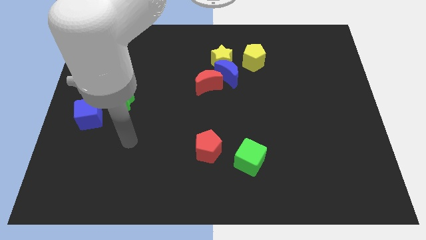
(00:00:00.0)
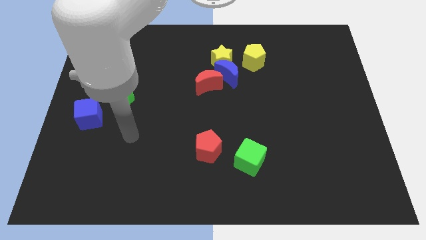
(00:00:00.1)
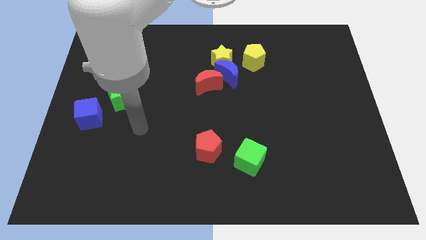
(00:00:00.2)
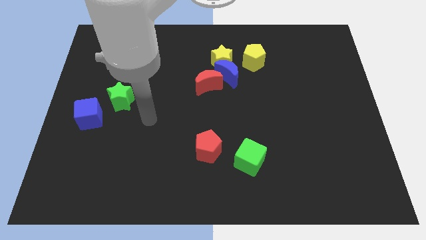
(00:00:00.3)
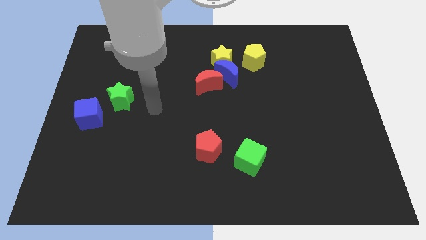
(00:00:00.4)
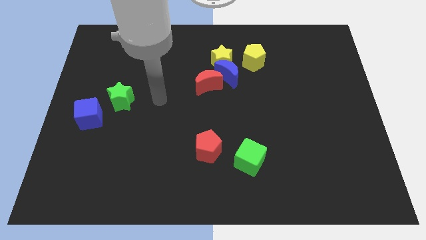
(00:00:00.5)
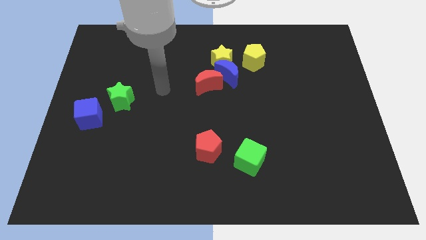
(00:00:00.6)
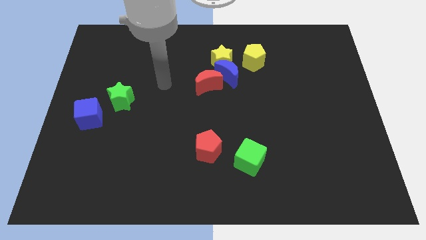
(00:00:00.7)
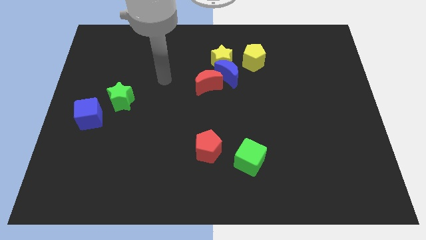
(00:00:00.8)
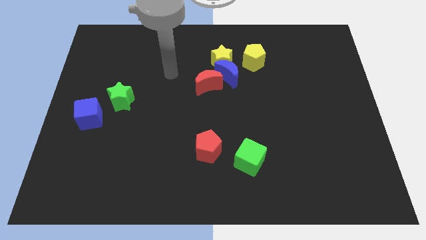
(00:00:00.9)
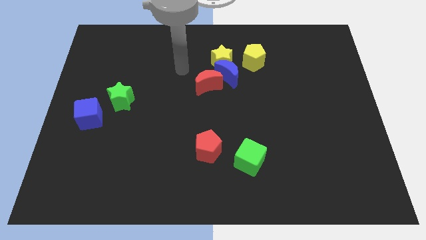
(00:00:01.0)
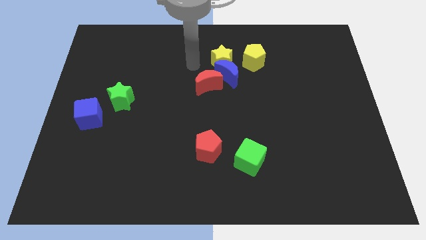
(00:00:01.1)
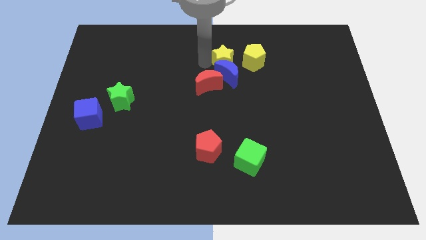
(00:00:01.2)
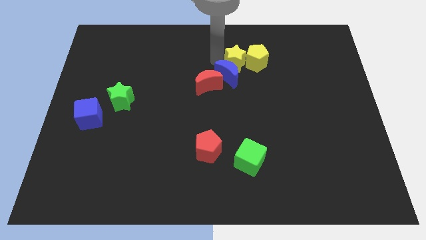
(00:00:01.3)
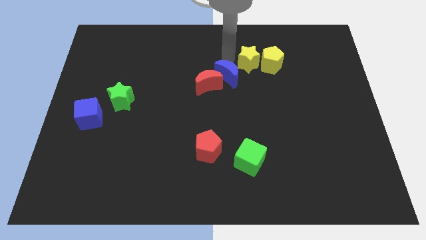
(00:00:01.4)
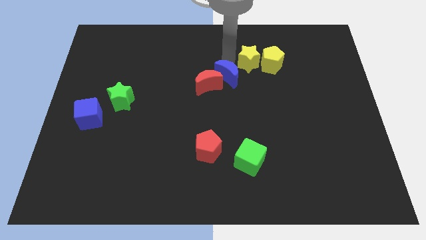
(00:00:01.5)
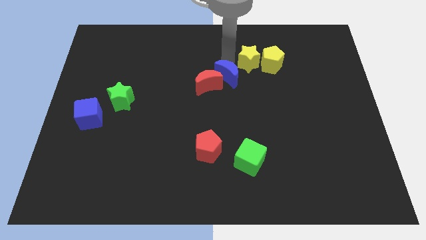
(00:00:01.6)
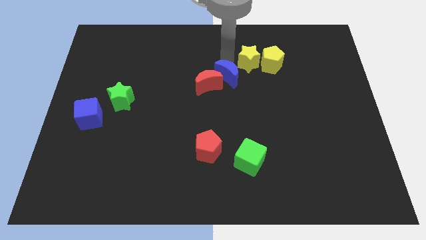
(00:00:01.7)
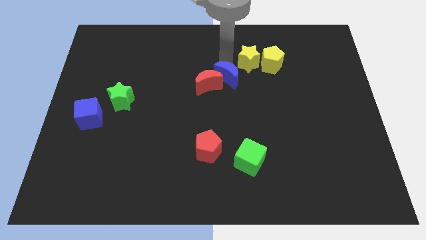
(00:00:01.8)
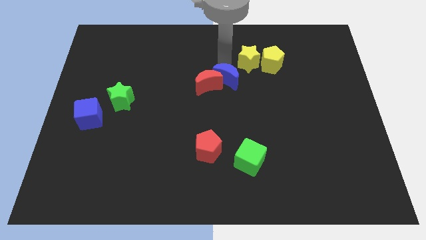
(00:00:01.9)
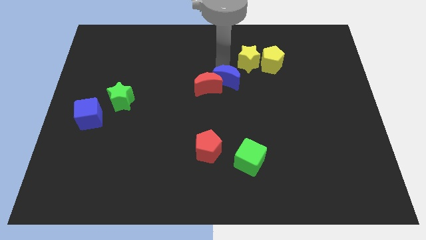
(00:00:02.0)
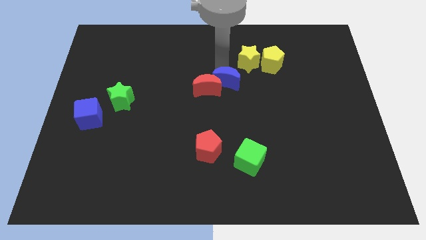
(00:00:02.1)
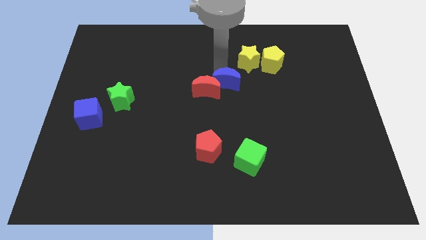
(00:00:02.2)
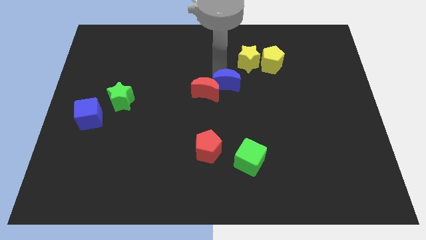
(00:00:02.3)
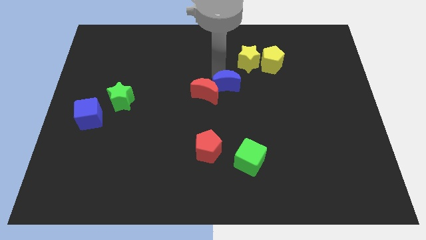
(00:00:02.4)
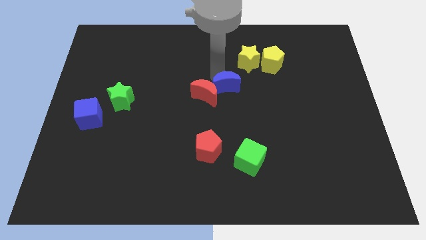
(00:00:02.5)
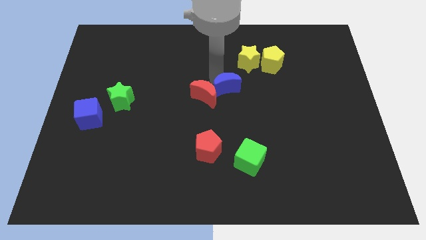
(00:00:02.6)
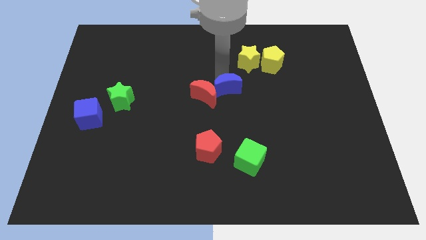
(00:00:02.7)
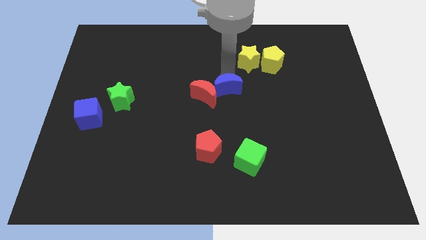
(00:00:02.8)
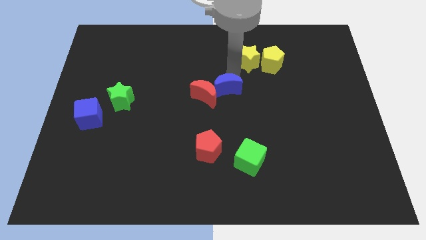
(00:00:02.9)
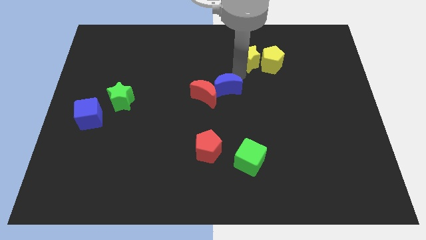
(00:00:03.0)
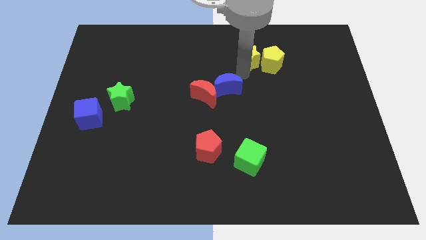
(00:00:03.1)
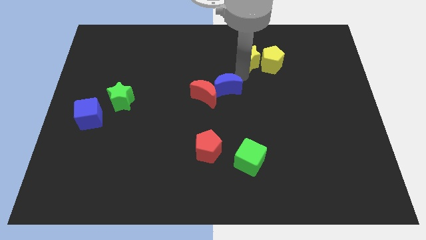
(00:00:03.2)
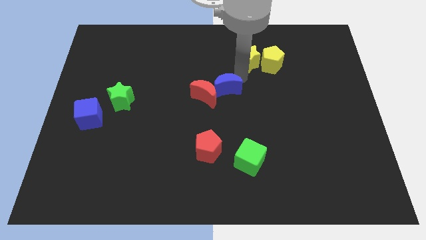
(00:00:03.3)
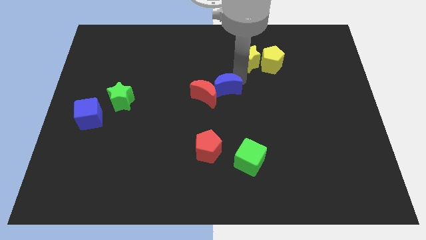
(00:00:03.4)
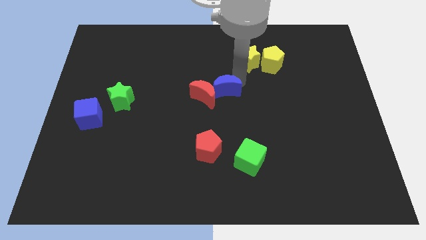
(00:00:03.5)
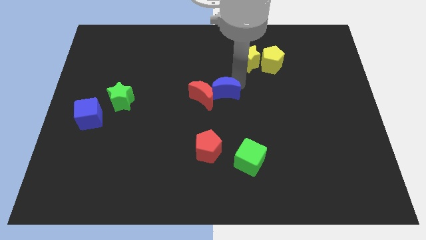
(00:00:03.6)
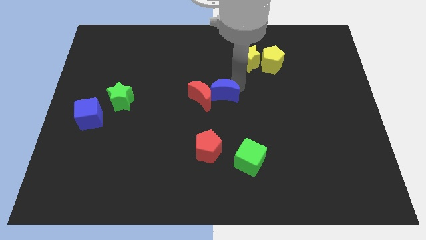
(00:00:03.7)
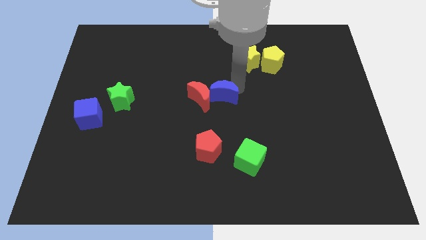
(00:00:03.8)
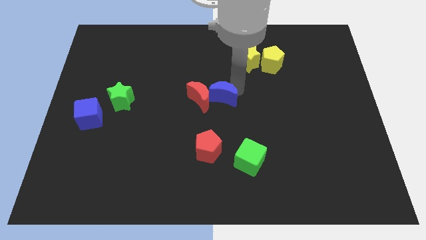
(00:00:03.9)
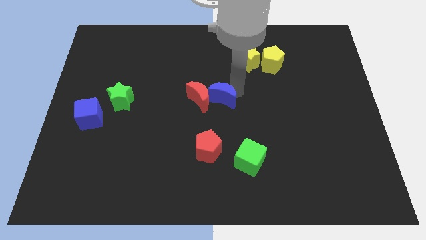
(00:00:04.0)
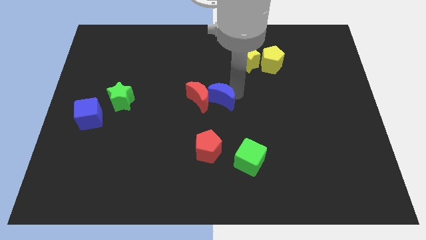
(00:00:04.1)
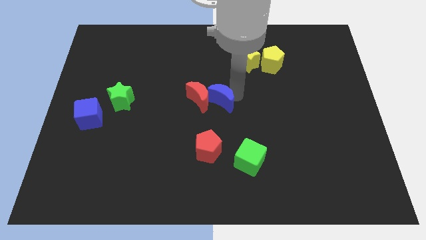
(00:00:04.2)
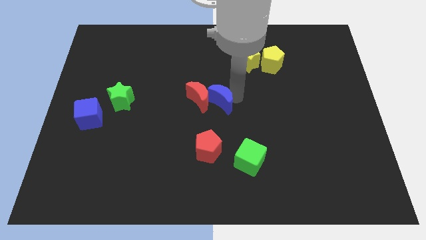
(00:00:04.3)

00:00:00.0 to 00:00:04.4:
move the blue moon away from the yellow star, red moon, and yellow pentagon

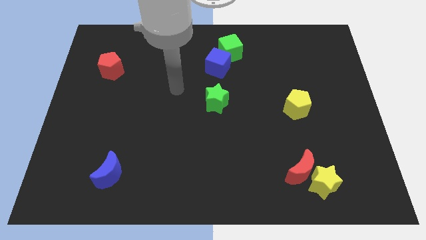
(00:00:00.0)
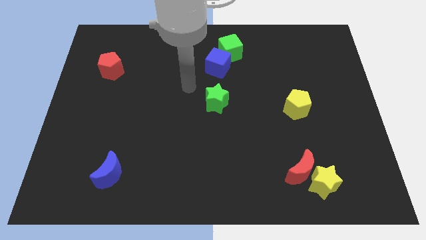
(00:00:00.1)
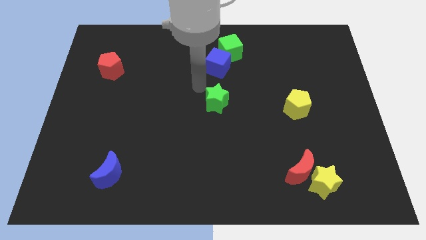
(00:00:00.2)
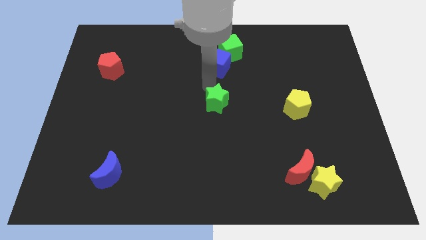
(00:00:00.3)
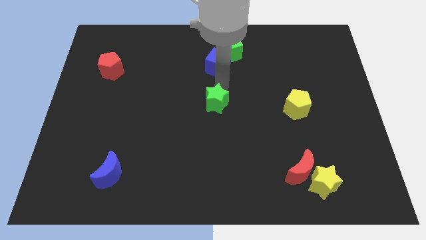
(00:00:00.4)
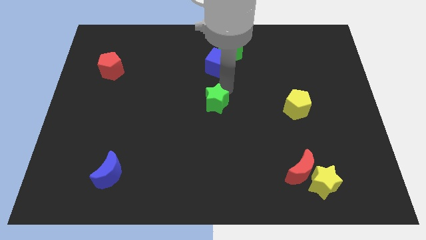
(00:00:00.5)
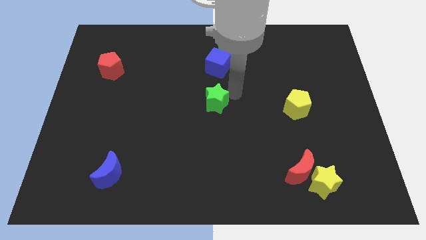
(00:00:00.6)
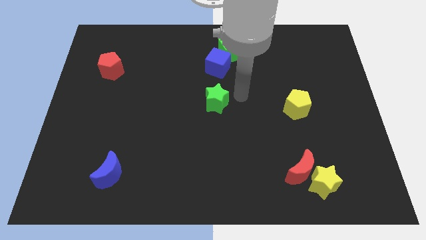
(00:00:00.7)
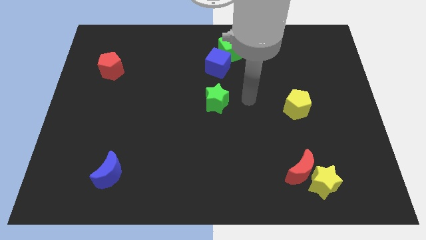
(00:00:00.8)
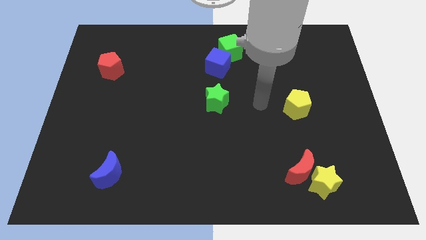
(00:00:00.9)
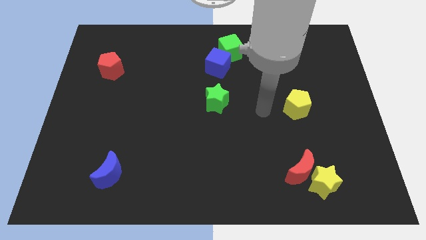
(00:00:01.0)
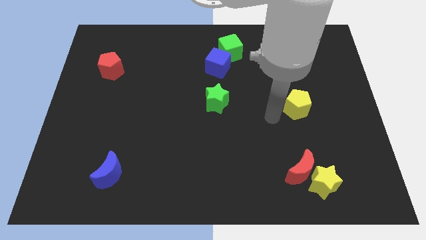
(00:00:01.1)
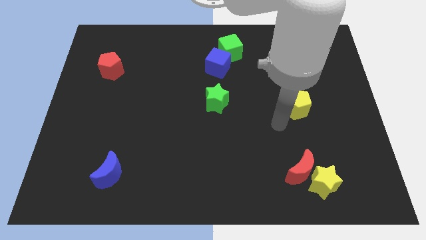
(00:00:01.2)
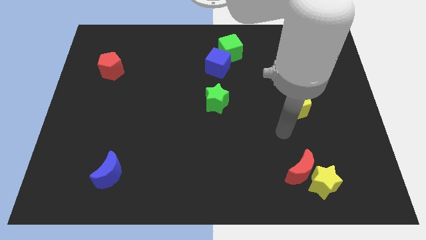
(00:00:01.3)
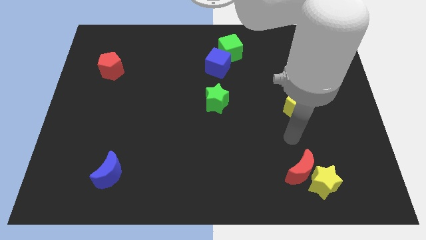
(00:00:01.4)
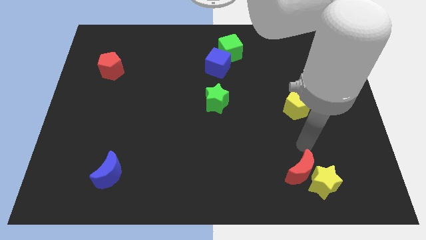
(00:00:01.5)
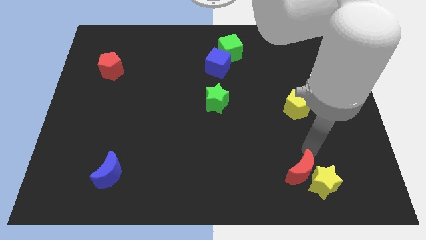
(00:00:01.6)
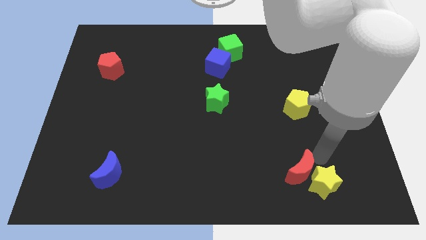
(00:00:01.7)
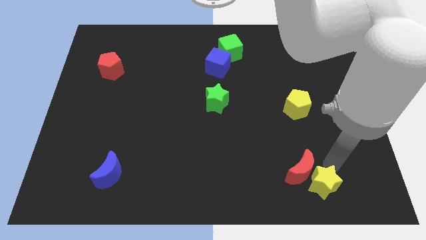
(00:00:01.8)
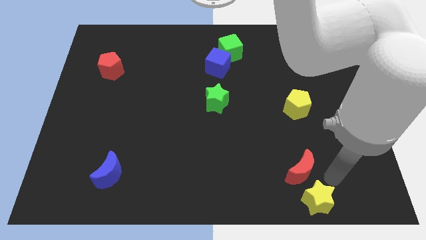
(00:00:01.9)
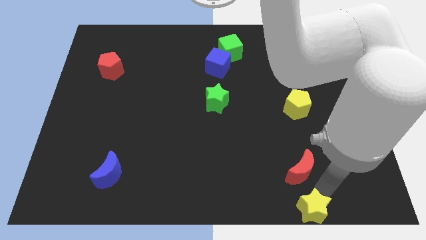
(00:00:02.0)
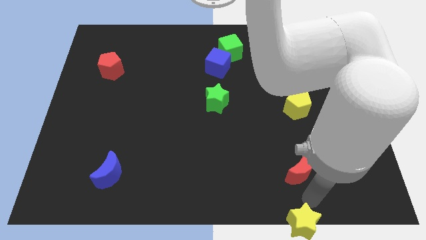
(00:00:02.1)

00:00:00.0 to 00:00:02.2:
move the red moon away from the yellow star

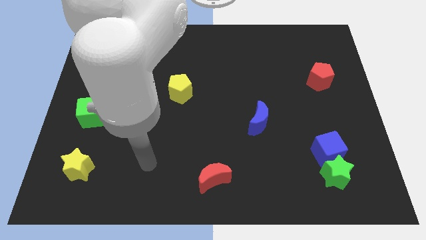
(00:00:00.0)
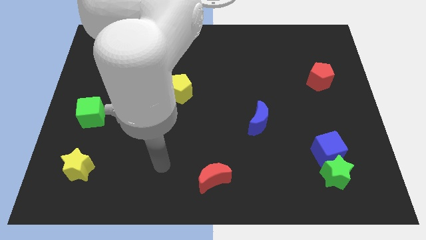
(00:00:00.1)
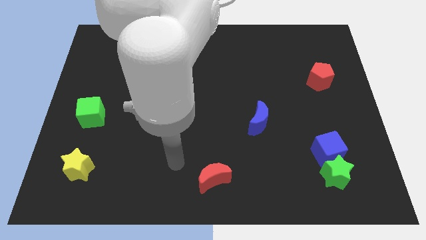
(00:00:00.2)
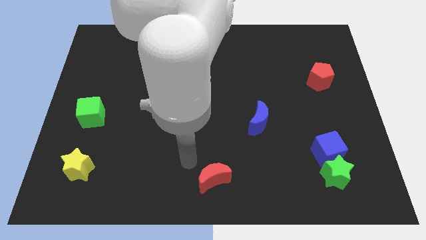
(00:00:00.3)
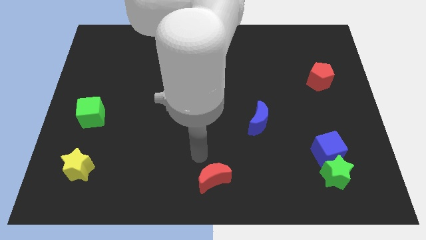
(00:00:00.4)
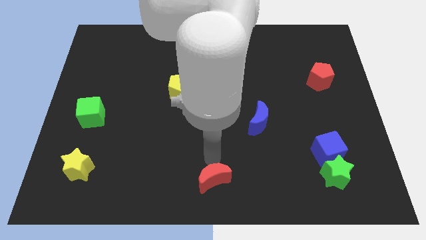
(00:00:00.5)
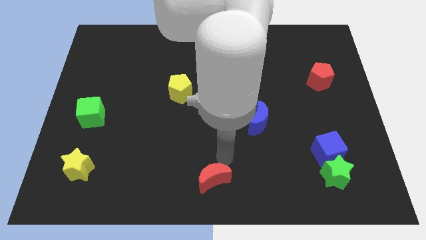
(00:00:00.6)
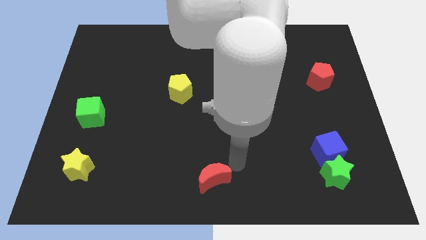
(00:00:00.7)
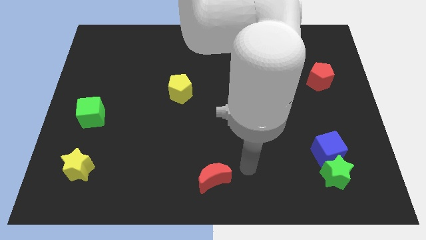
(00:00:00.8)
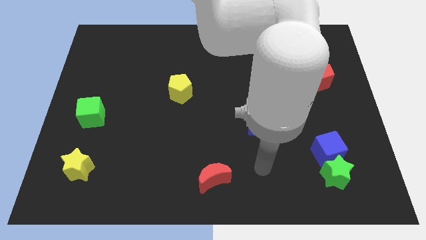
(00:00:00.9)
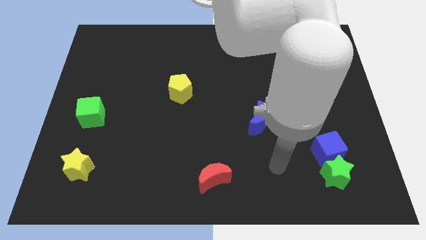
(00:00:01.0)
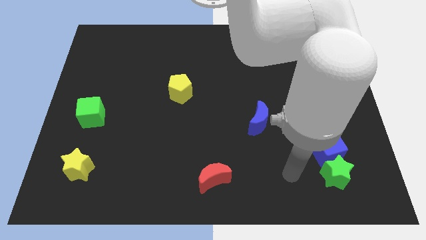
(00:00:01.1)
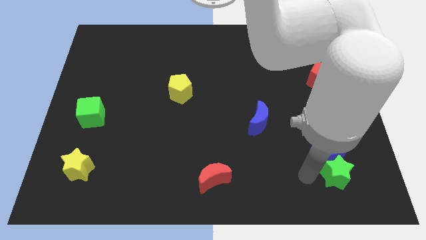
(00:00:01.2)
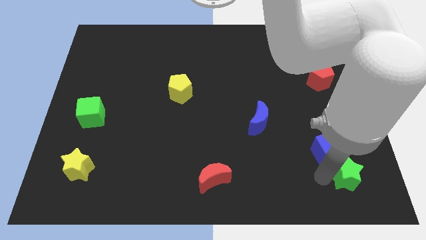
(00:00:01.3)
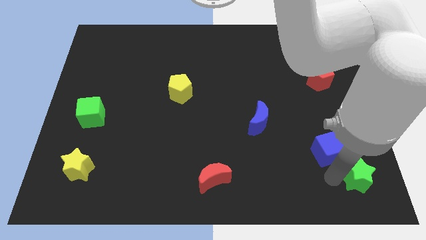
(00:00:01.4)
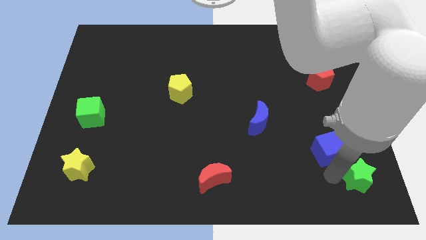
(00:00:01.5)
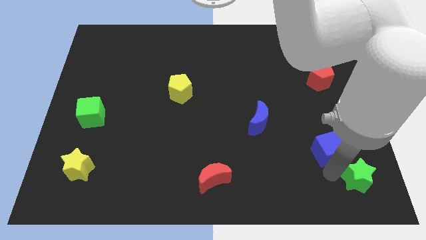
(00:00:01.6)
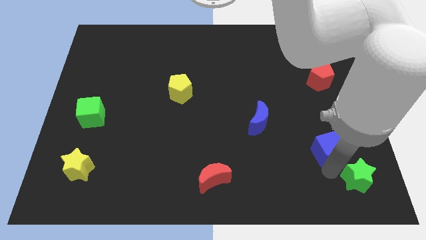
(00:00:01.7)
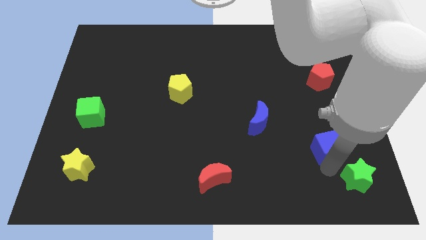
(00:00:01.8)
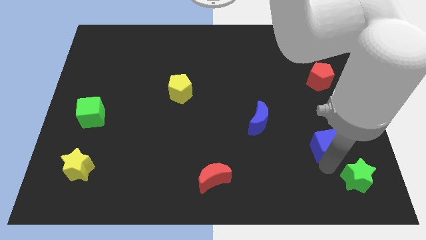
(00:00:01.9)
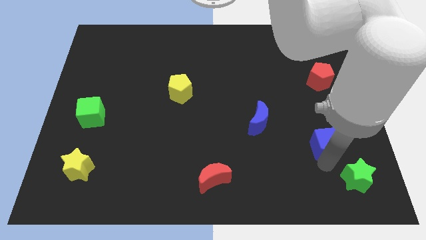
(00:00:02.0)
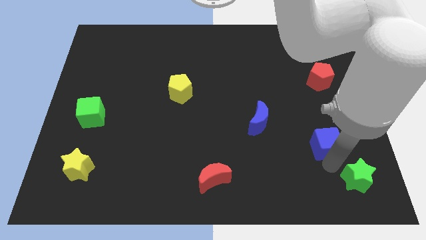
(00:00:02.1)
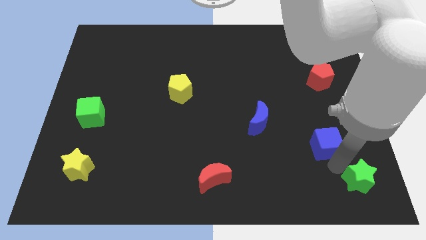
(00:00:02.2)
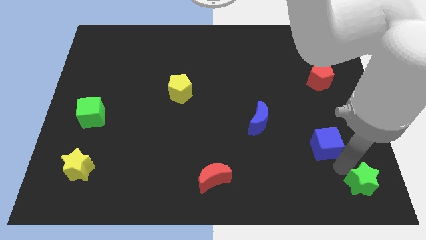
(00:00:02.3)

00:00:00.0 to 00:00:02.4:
move the blue cube away from the green star

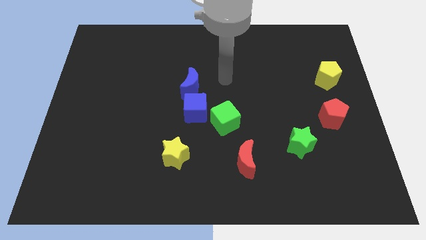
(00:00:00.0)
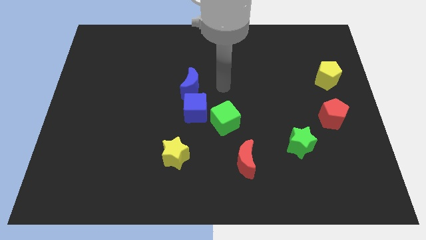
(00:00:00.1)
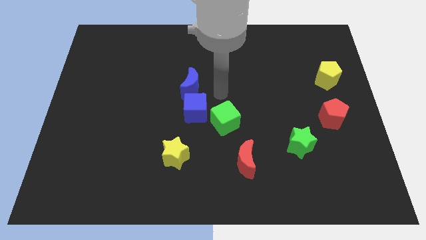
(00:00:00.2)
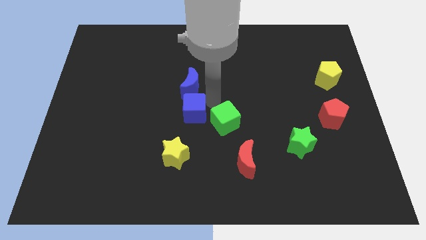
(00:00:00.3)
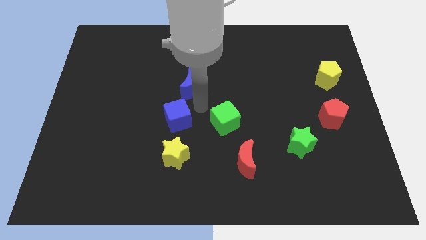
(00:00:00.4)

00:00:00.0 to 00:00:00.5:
pull the blue moon apart from the blue cube
